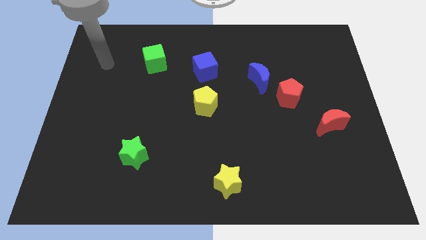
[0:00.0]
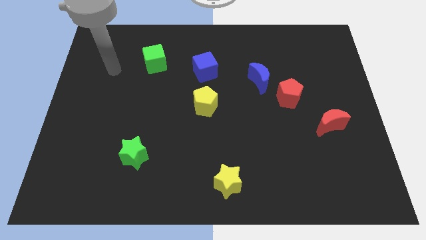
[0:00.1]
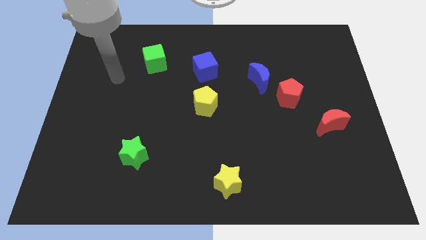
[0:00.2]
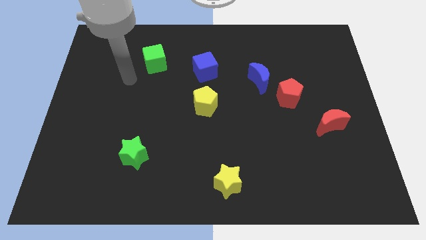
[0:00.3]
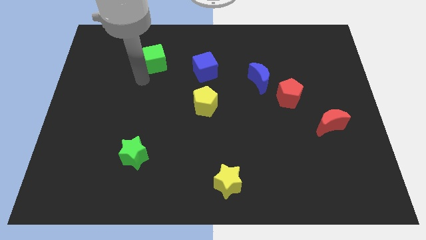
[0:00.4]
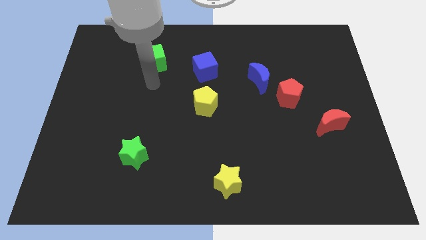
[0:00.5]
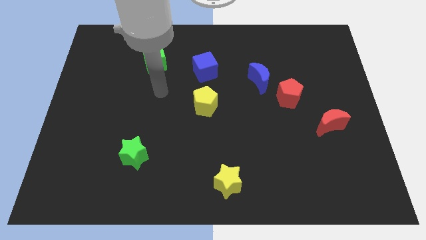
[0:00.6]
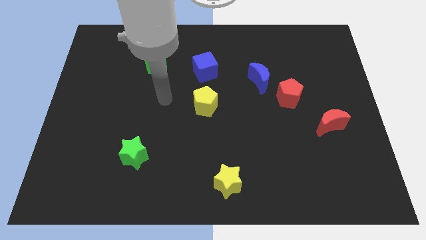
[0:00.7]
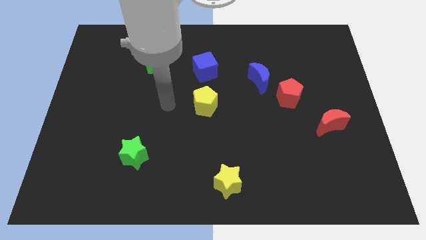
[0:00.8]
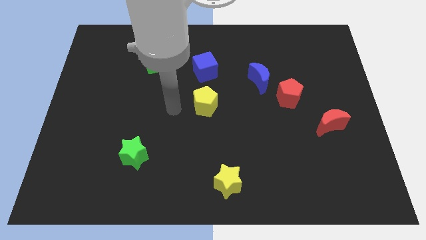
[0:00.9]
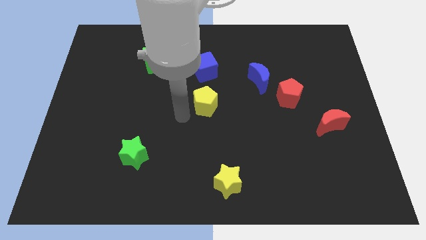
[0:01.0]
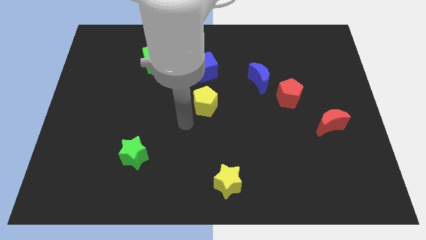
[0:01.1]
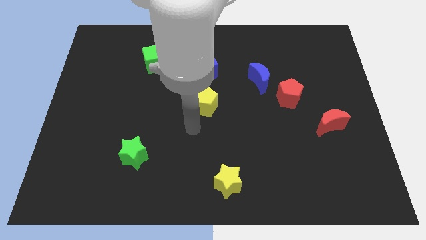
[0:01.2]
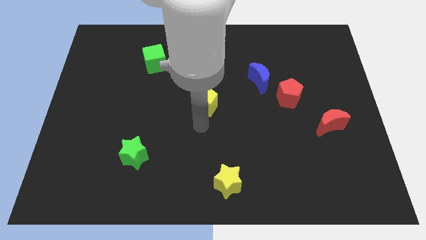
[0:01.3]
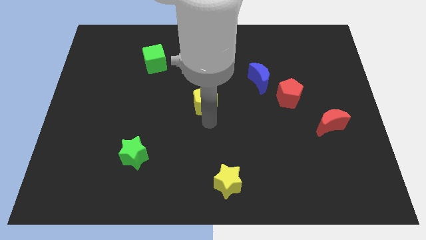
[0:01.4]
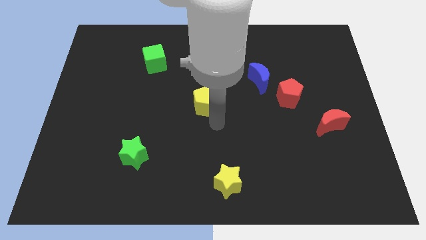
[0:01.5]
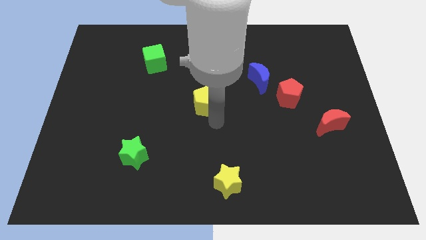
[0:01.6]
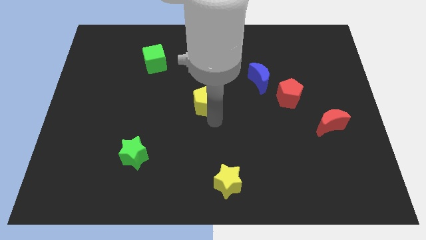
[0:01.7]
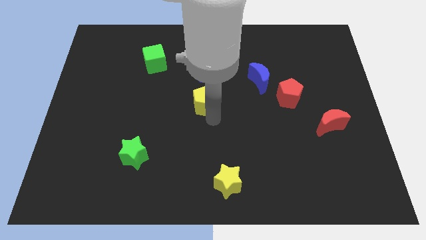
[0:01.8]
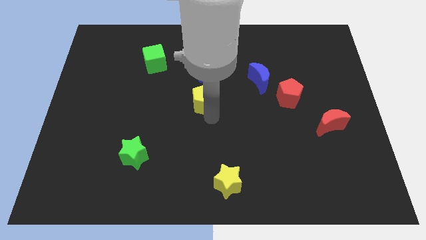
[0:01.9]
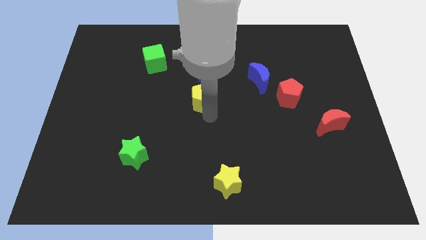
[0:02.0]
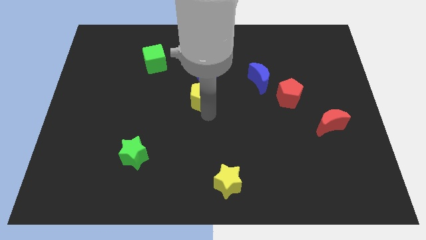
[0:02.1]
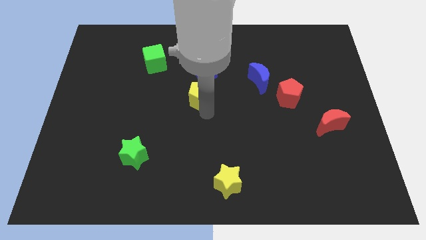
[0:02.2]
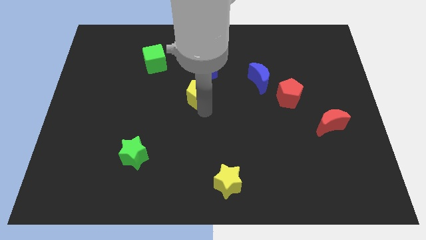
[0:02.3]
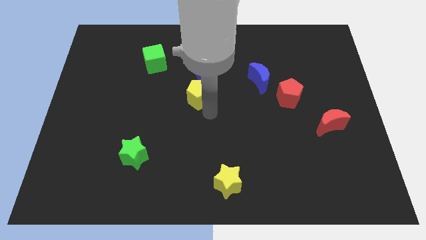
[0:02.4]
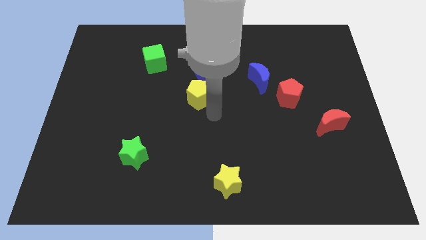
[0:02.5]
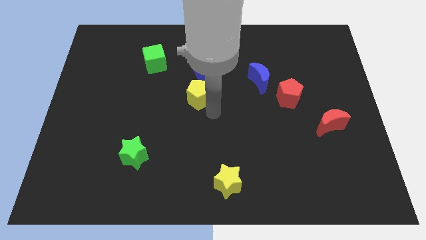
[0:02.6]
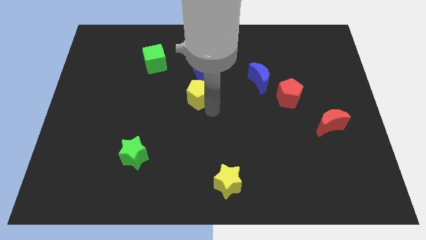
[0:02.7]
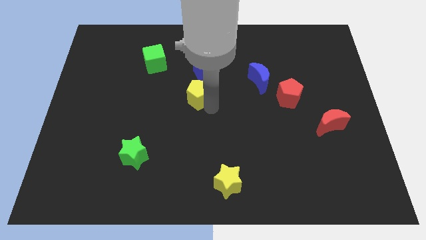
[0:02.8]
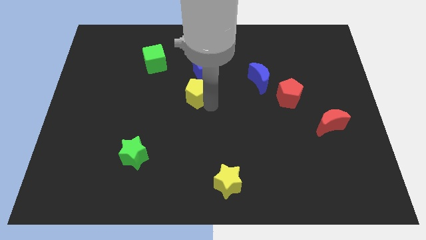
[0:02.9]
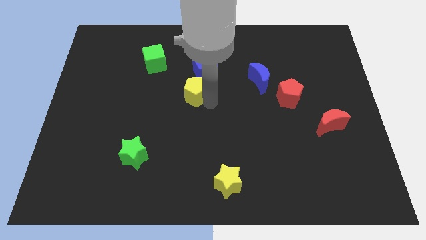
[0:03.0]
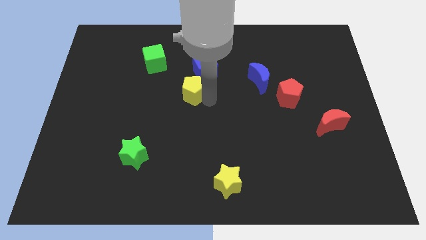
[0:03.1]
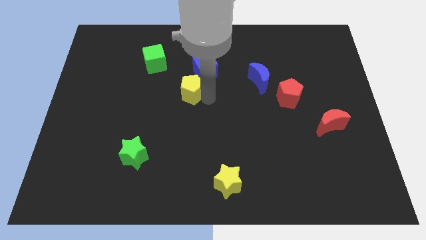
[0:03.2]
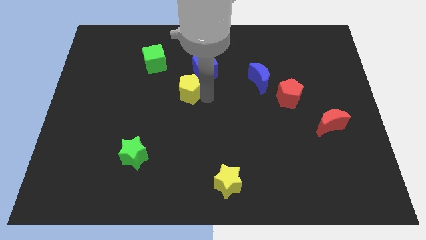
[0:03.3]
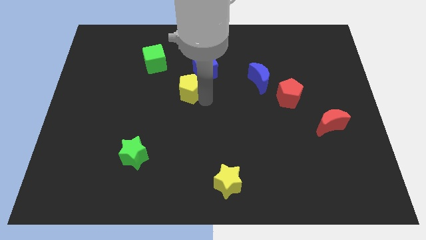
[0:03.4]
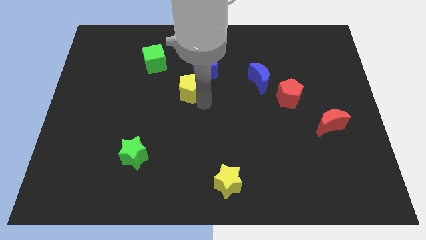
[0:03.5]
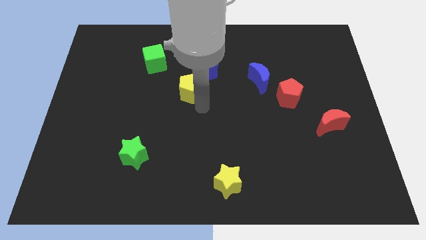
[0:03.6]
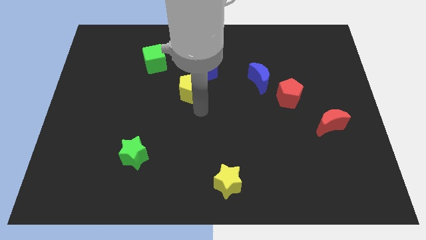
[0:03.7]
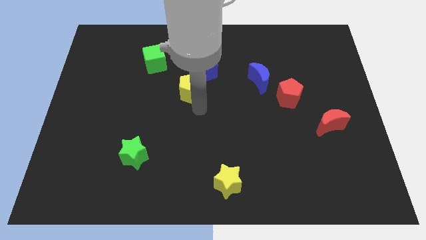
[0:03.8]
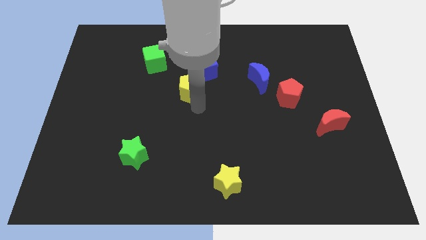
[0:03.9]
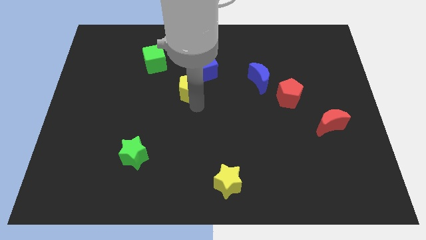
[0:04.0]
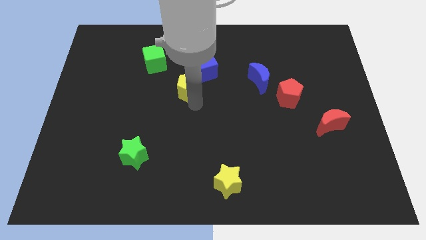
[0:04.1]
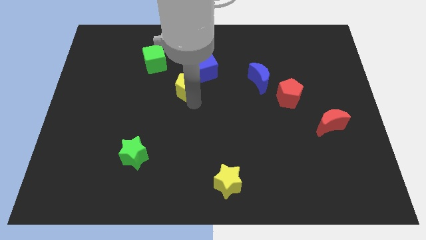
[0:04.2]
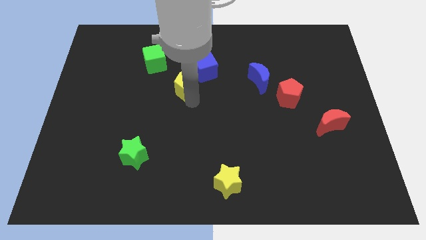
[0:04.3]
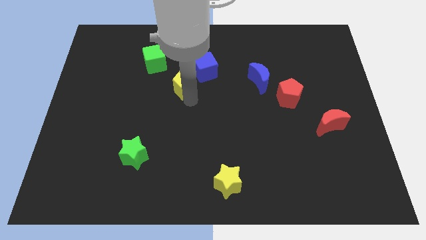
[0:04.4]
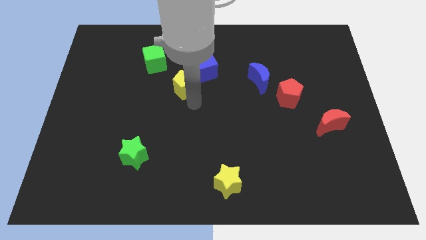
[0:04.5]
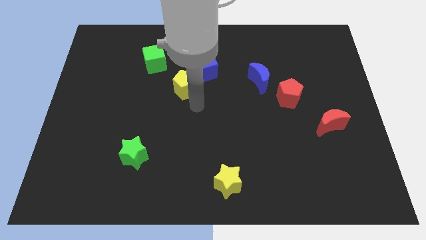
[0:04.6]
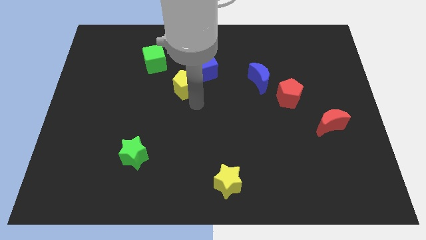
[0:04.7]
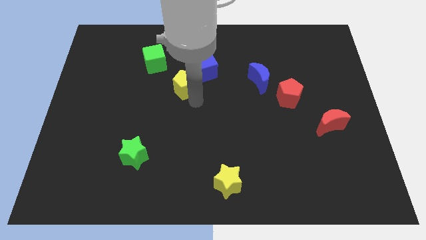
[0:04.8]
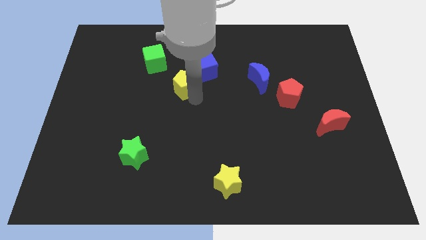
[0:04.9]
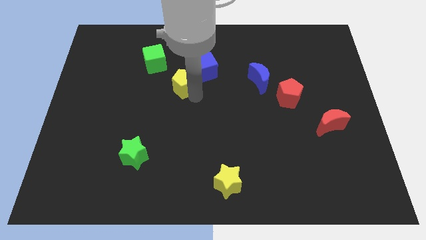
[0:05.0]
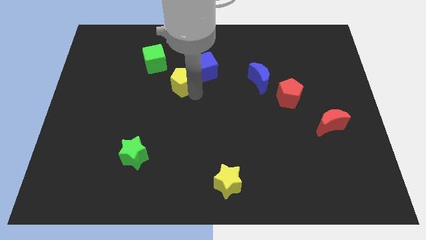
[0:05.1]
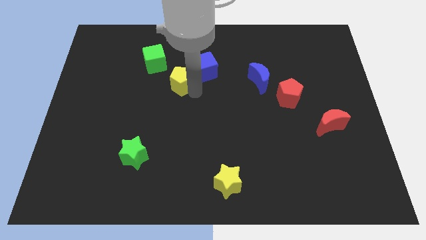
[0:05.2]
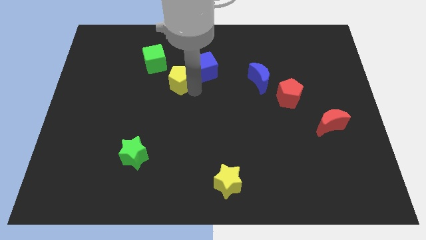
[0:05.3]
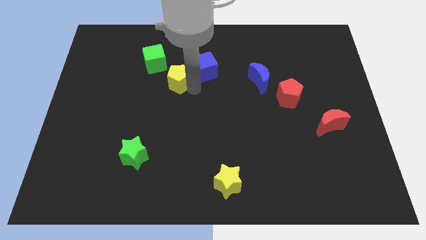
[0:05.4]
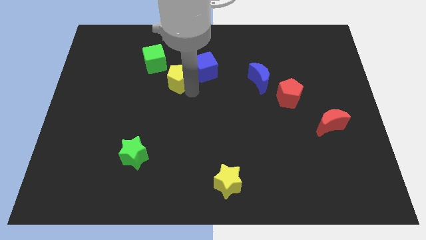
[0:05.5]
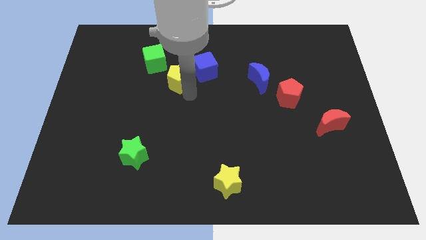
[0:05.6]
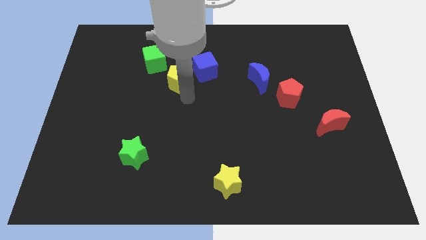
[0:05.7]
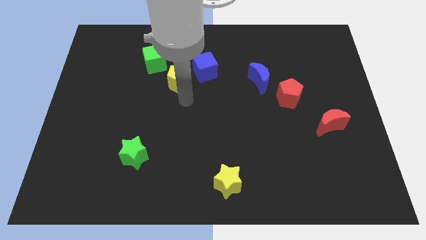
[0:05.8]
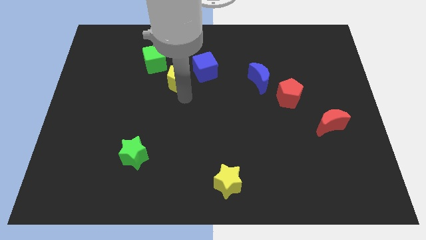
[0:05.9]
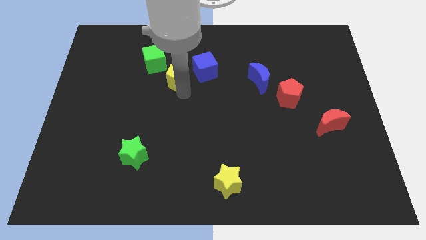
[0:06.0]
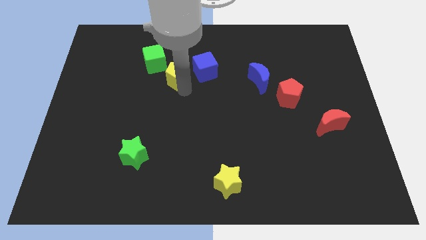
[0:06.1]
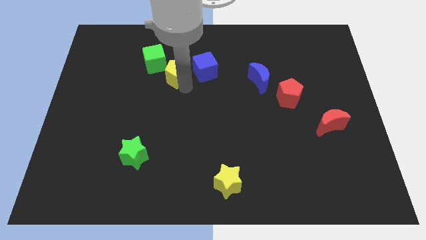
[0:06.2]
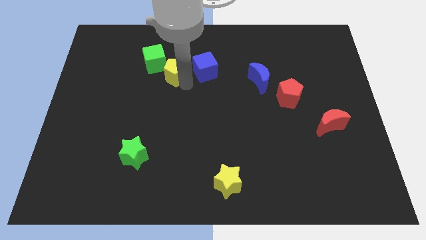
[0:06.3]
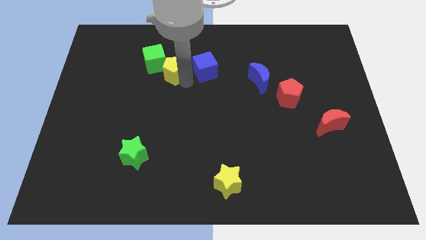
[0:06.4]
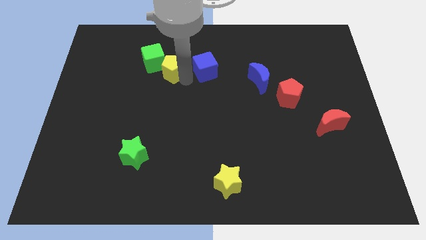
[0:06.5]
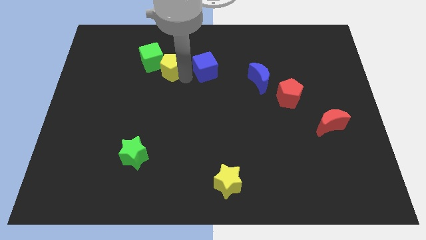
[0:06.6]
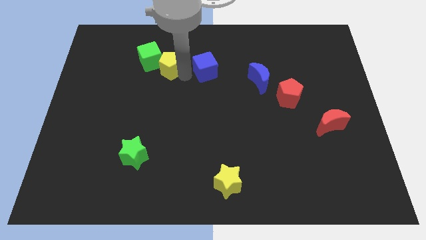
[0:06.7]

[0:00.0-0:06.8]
push the yellow pentagon next to the green cube
